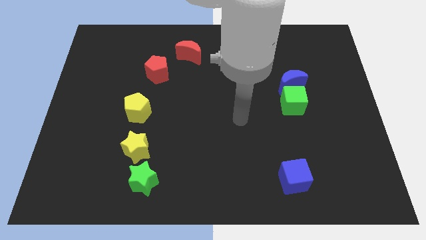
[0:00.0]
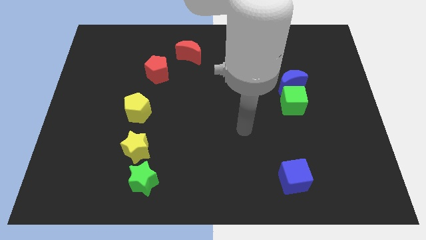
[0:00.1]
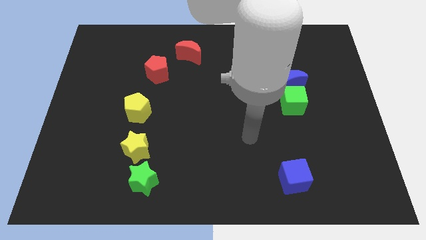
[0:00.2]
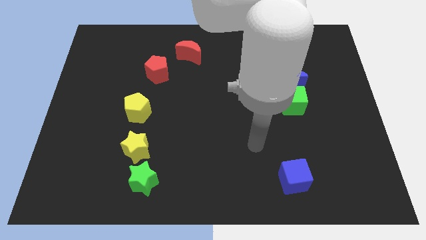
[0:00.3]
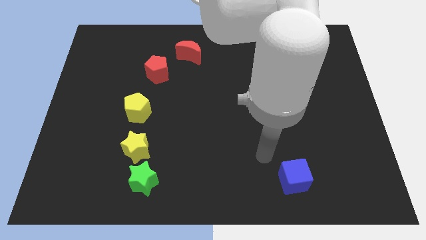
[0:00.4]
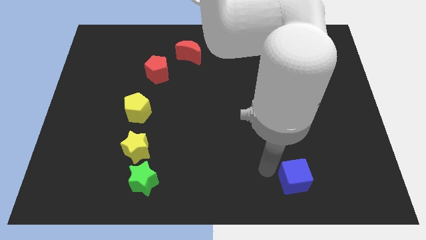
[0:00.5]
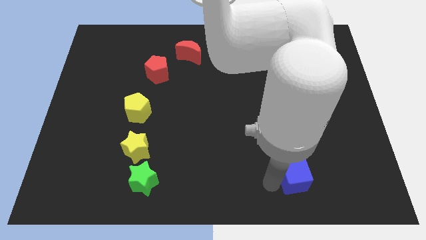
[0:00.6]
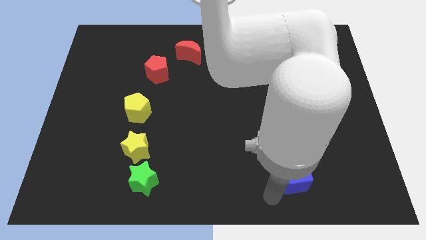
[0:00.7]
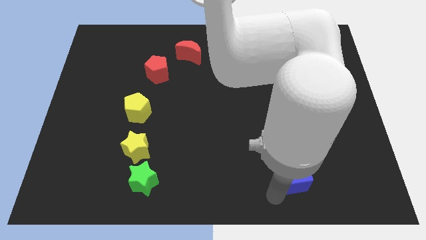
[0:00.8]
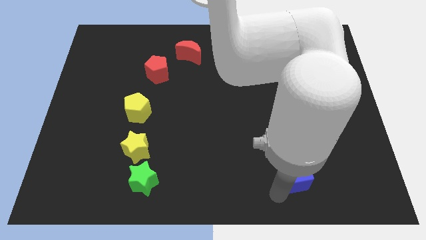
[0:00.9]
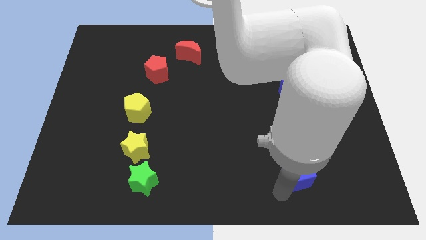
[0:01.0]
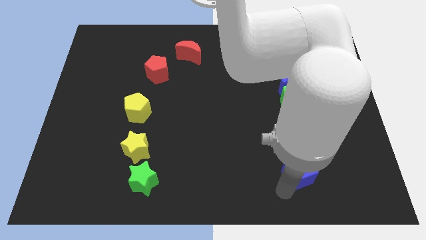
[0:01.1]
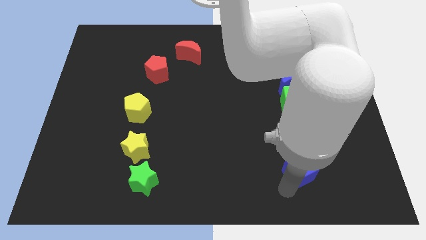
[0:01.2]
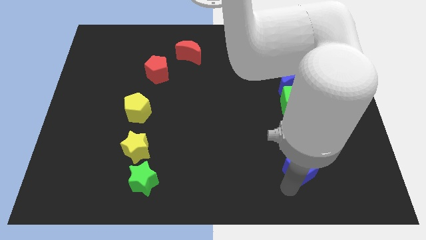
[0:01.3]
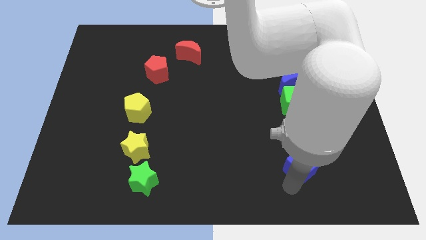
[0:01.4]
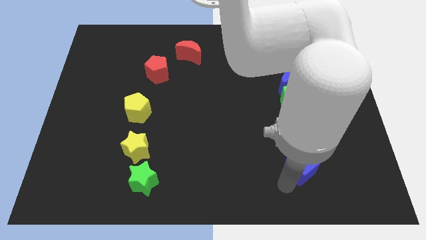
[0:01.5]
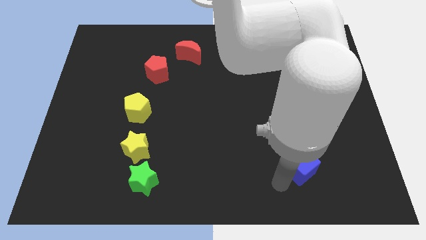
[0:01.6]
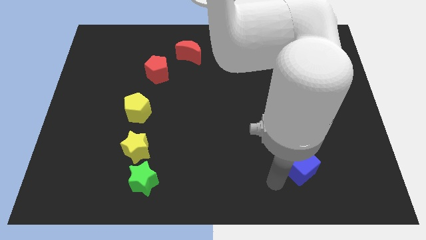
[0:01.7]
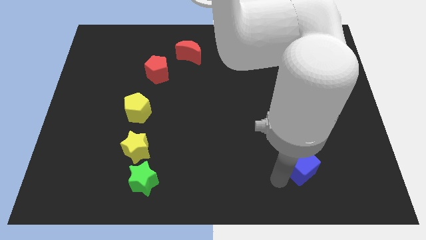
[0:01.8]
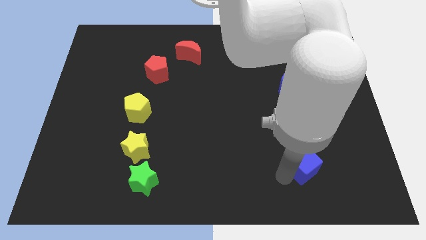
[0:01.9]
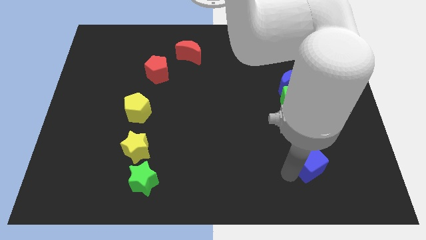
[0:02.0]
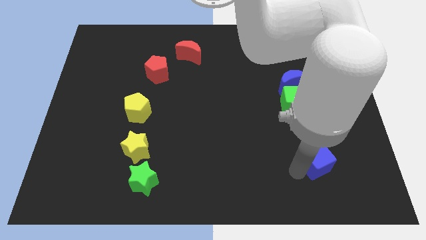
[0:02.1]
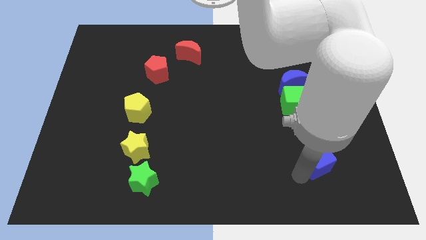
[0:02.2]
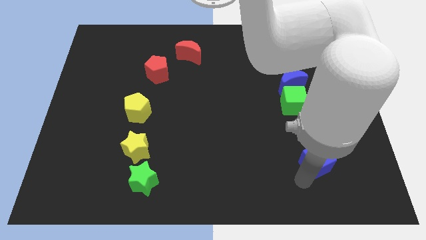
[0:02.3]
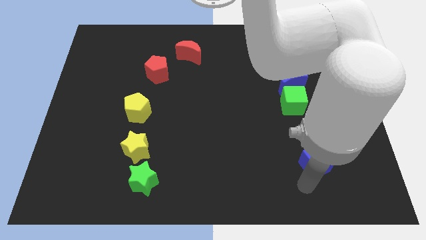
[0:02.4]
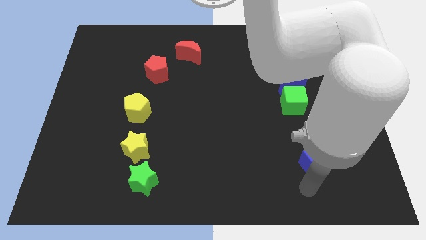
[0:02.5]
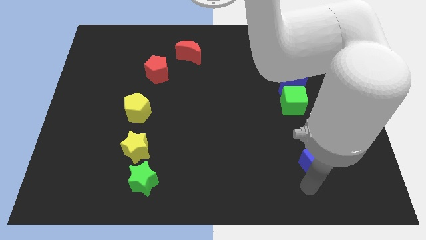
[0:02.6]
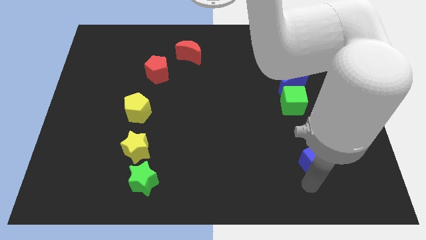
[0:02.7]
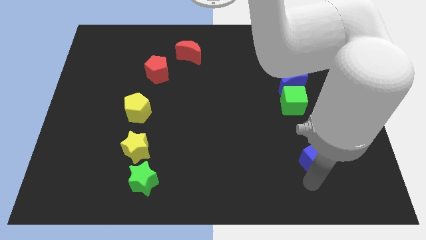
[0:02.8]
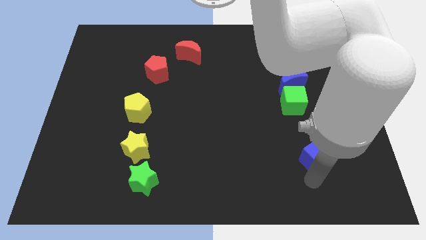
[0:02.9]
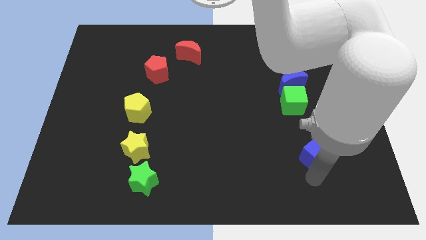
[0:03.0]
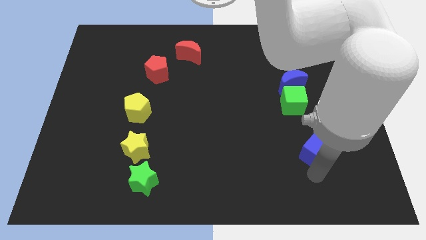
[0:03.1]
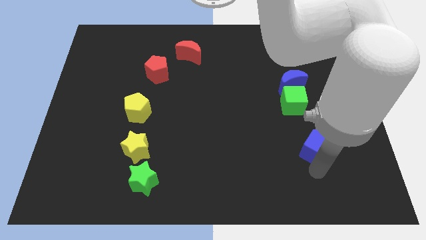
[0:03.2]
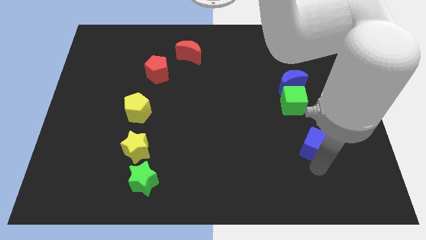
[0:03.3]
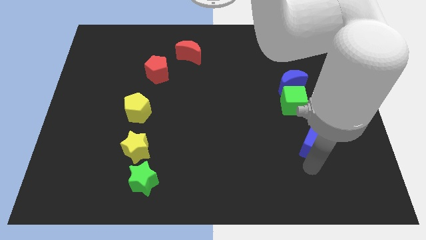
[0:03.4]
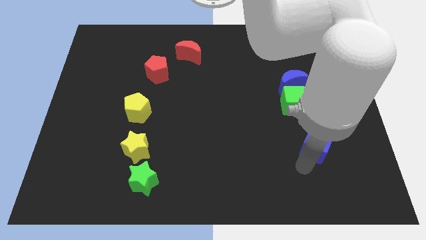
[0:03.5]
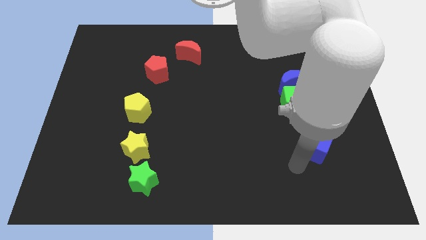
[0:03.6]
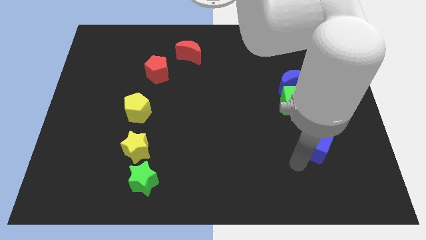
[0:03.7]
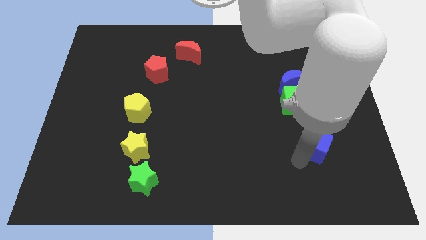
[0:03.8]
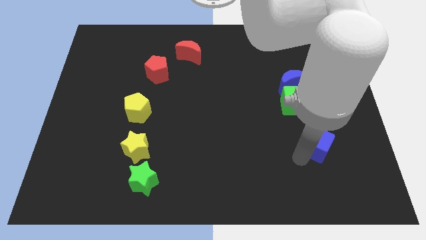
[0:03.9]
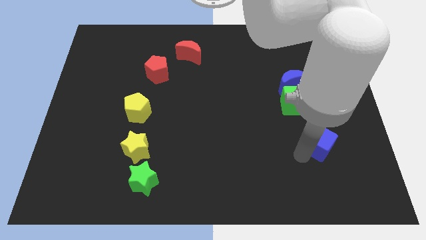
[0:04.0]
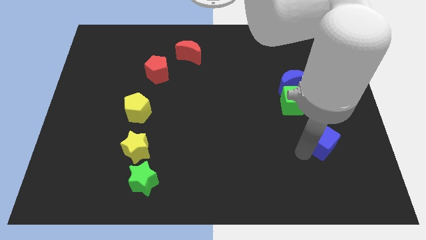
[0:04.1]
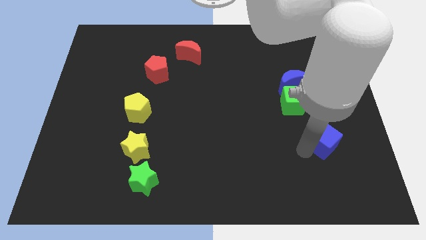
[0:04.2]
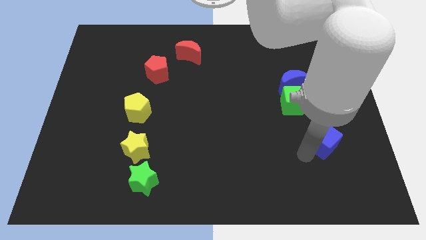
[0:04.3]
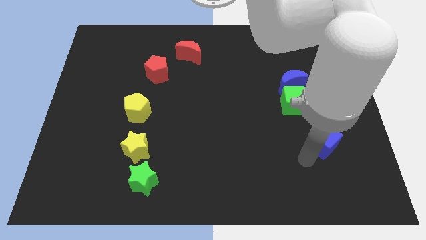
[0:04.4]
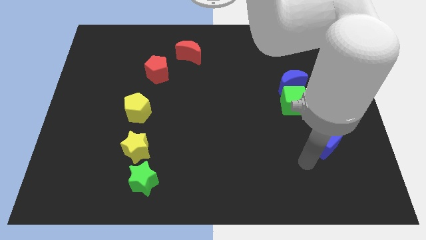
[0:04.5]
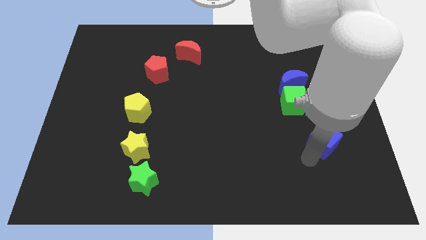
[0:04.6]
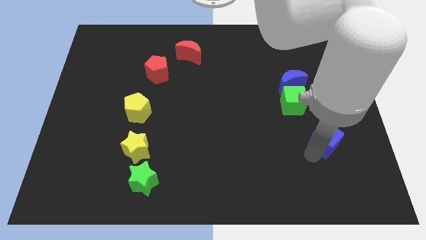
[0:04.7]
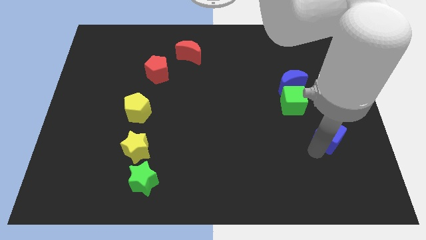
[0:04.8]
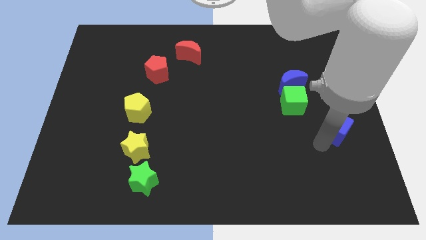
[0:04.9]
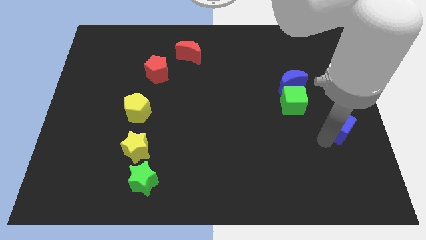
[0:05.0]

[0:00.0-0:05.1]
put the blue cube to the right side

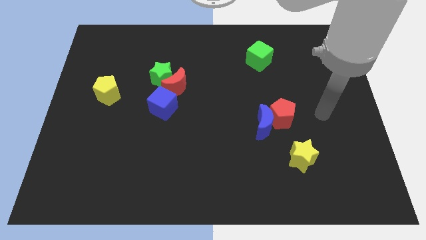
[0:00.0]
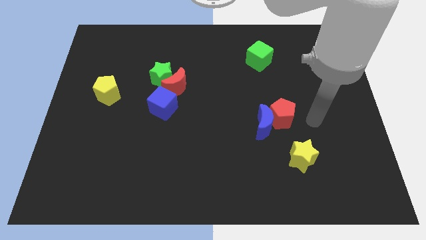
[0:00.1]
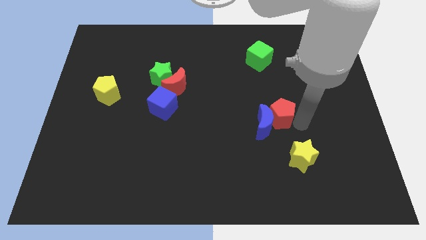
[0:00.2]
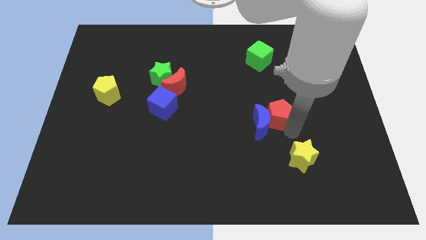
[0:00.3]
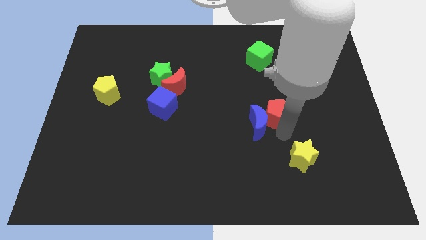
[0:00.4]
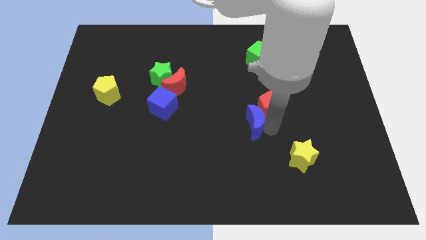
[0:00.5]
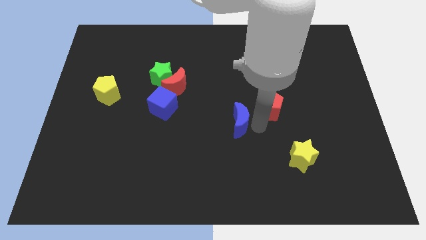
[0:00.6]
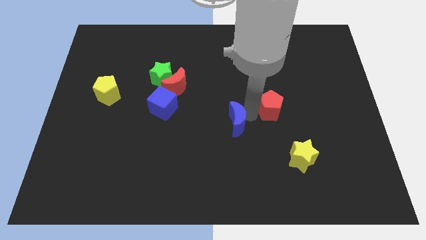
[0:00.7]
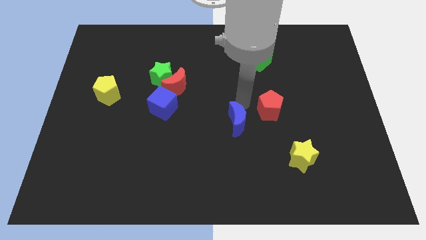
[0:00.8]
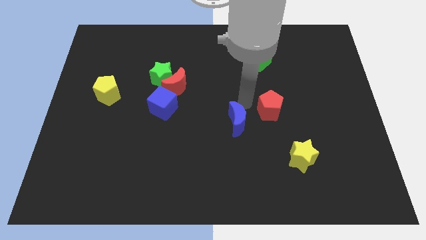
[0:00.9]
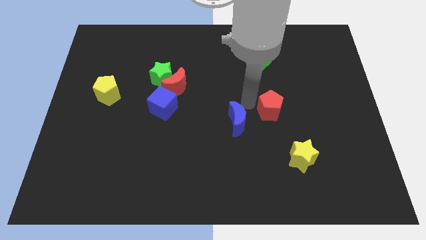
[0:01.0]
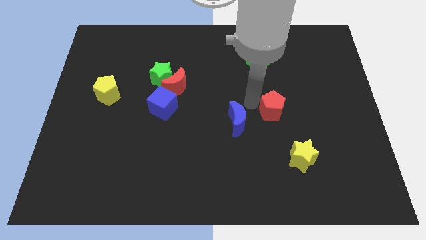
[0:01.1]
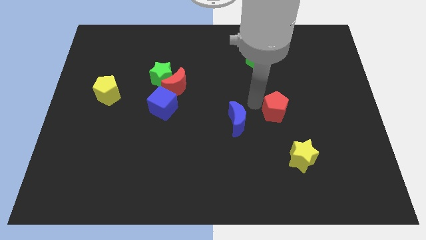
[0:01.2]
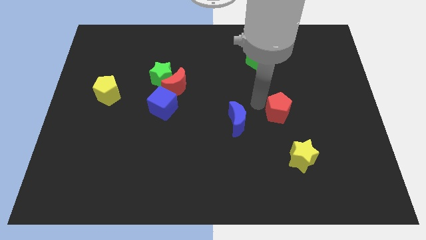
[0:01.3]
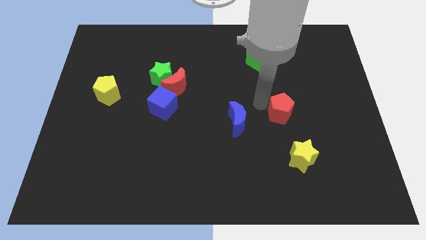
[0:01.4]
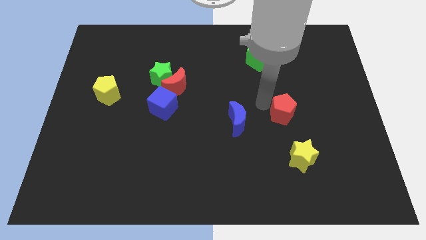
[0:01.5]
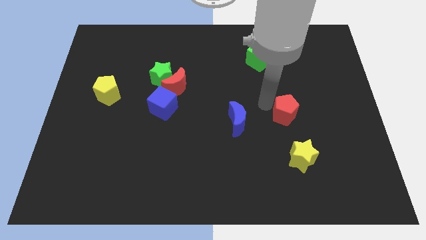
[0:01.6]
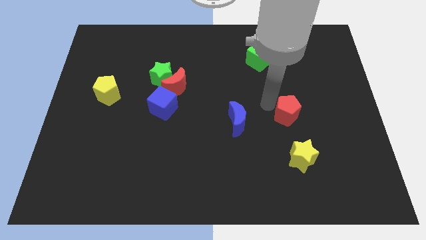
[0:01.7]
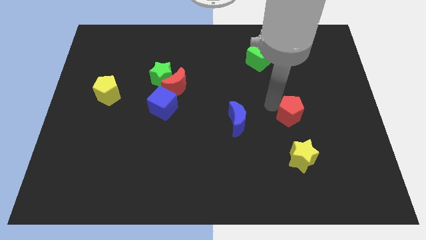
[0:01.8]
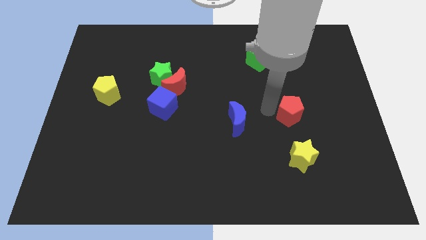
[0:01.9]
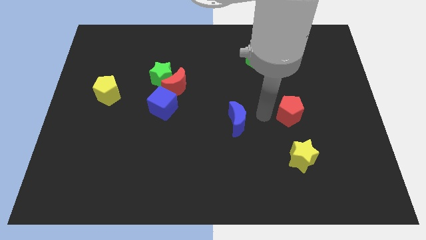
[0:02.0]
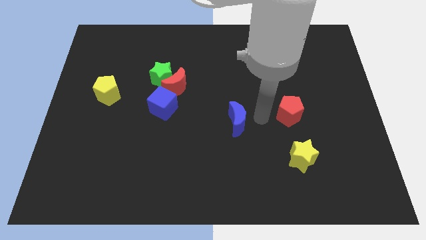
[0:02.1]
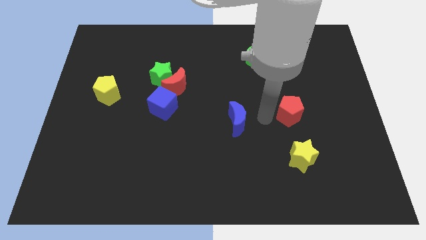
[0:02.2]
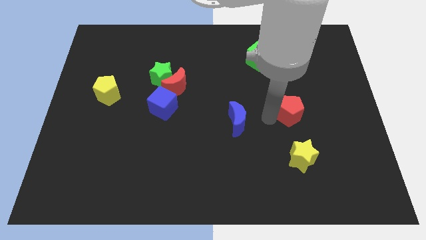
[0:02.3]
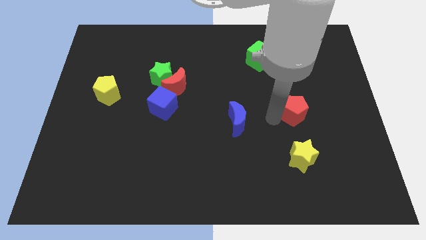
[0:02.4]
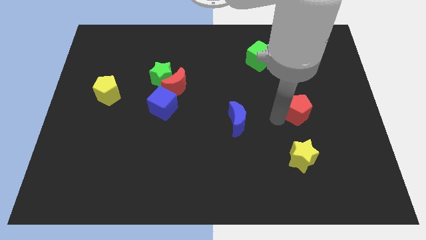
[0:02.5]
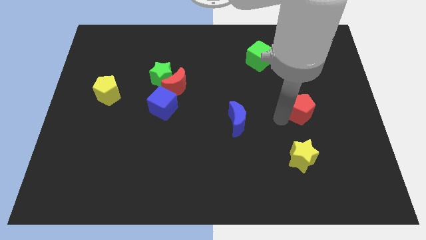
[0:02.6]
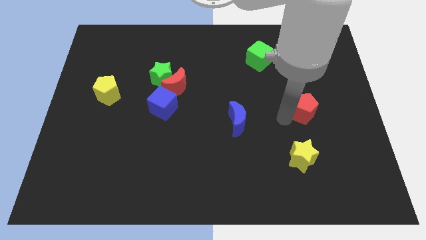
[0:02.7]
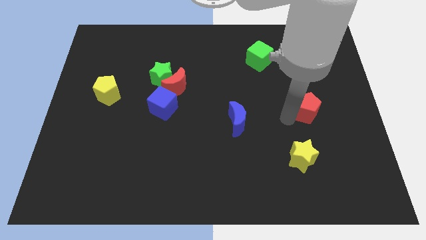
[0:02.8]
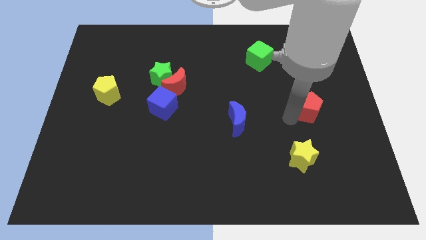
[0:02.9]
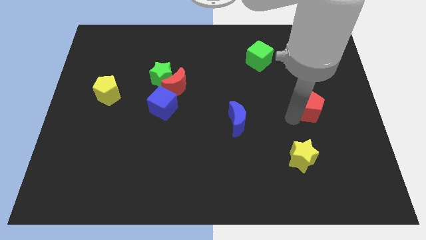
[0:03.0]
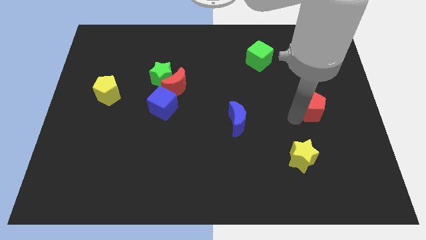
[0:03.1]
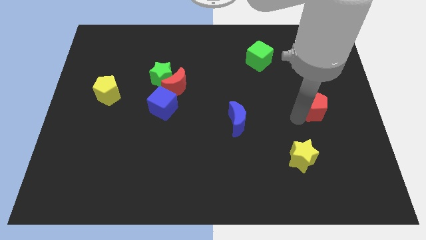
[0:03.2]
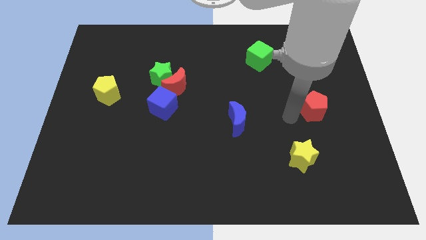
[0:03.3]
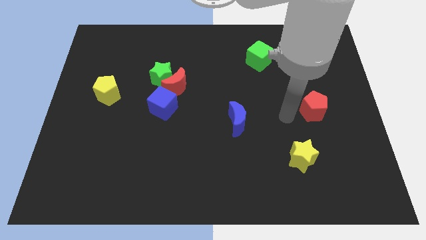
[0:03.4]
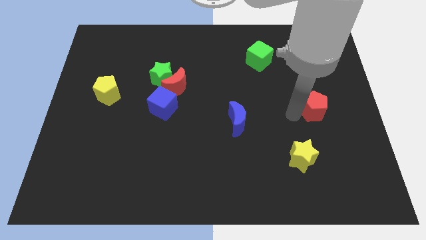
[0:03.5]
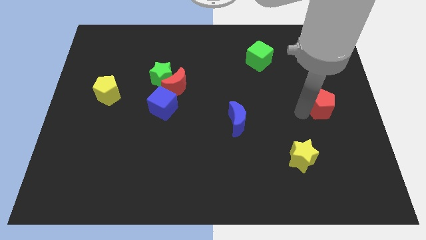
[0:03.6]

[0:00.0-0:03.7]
move the red pentagon to the right side of the board
